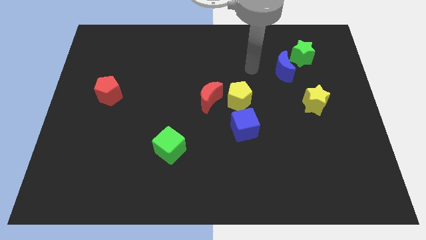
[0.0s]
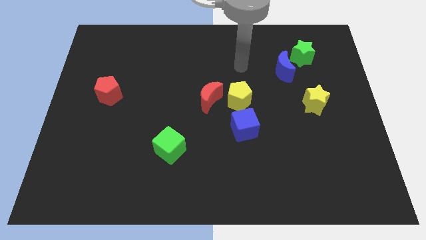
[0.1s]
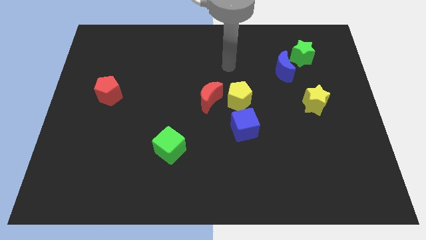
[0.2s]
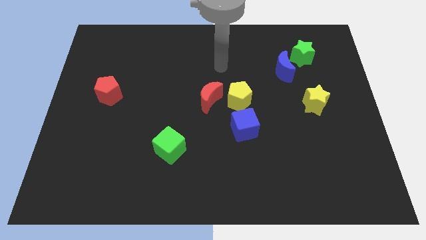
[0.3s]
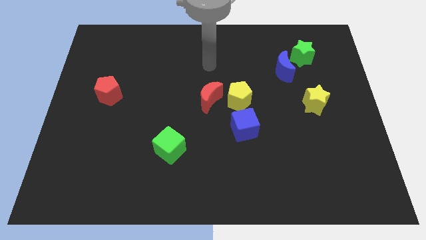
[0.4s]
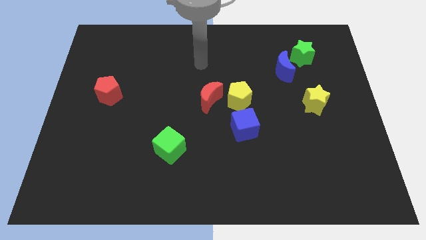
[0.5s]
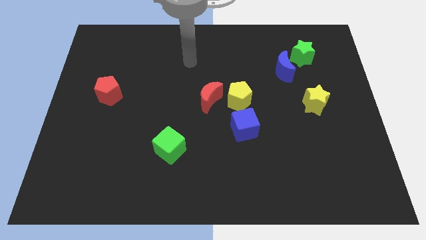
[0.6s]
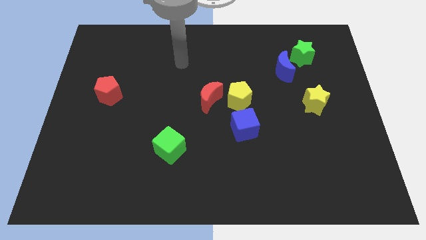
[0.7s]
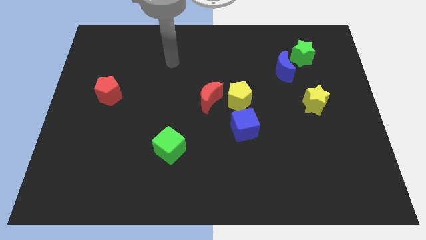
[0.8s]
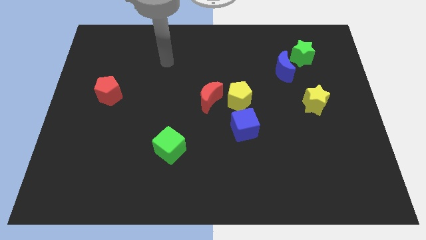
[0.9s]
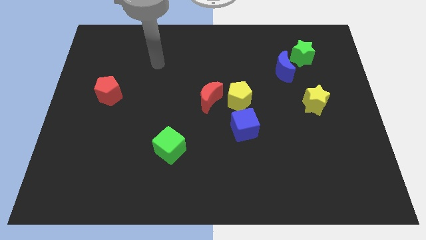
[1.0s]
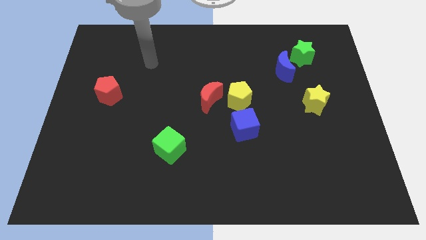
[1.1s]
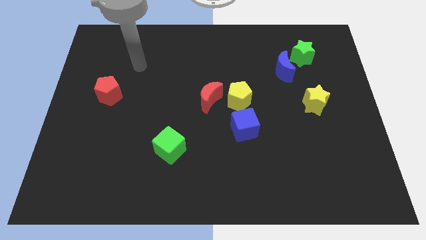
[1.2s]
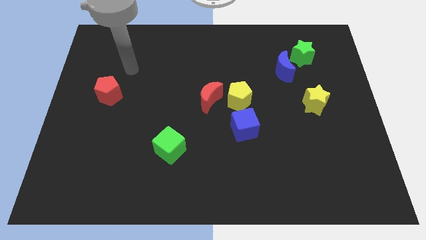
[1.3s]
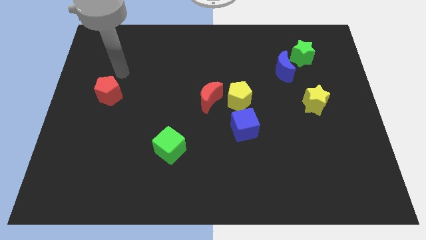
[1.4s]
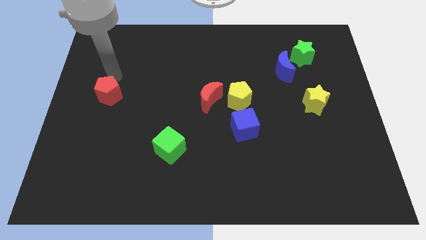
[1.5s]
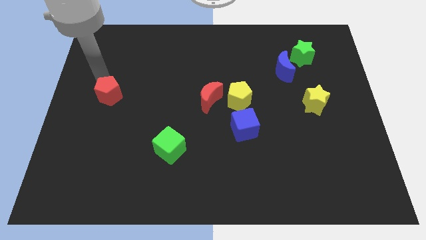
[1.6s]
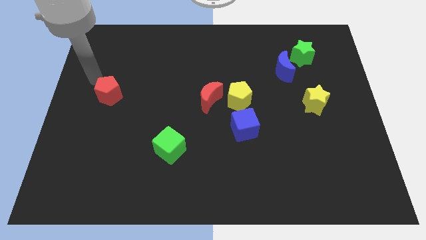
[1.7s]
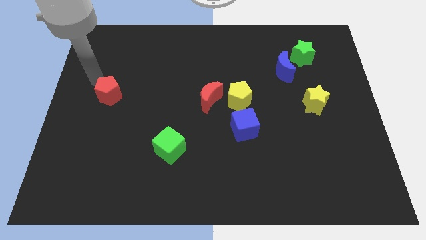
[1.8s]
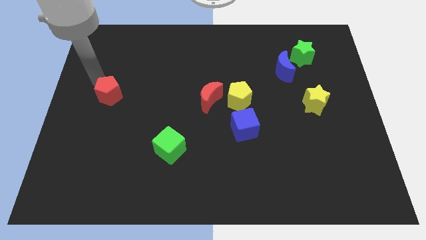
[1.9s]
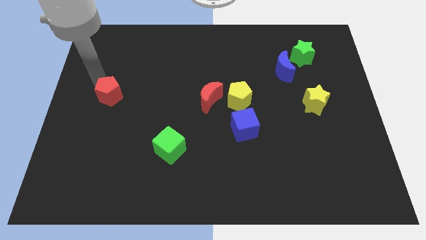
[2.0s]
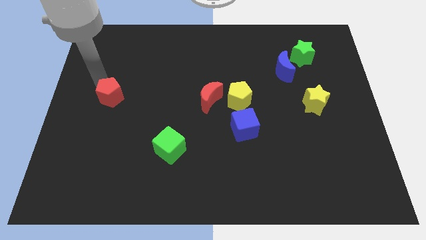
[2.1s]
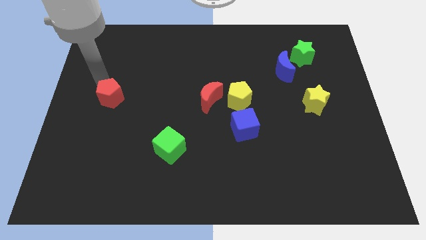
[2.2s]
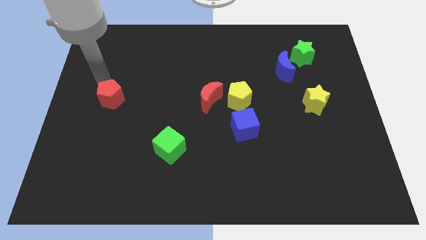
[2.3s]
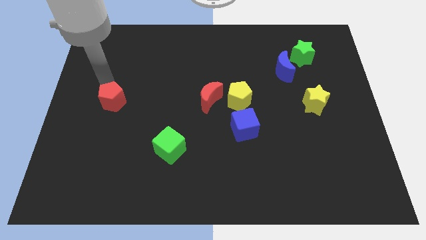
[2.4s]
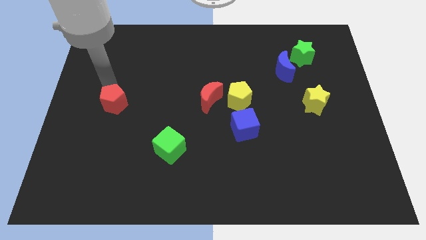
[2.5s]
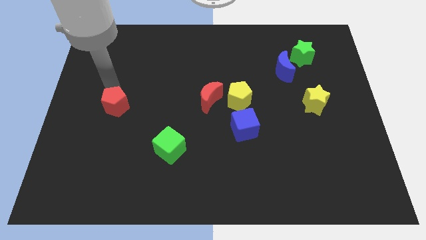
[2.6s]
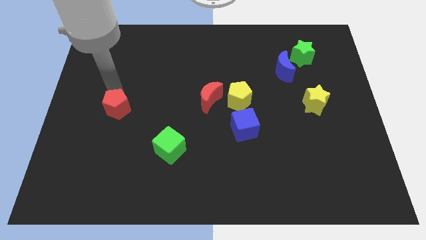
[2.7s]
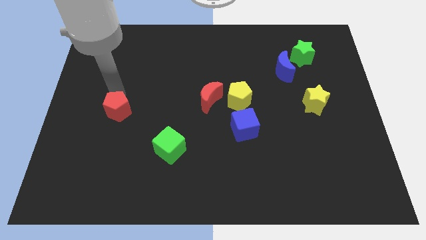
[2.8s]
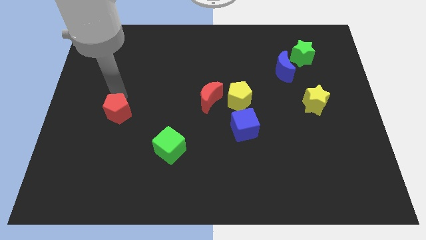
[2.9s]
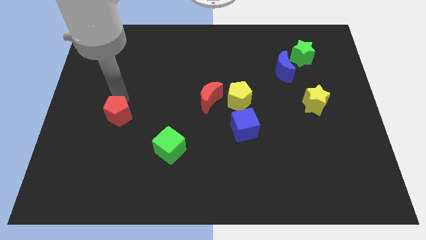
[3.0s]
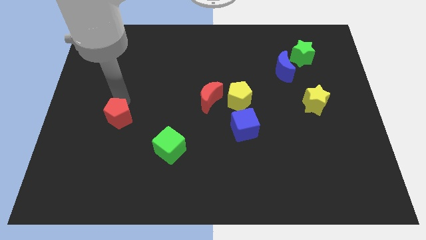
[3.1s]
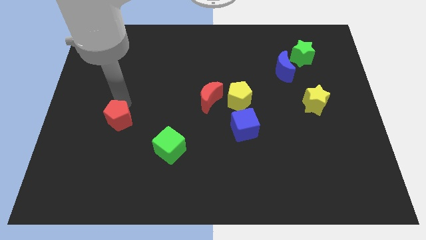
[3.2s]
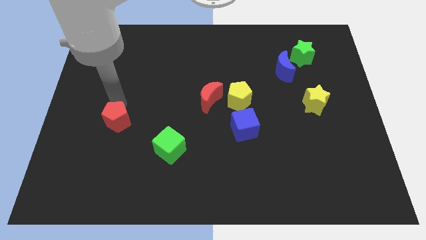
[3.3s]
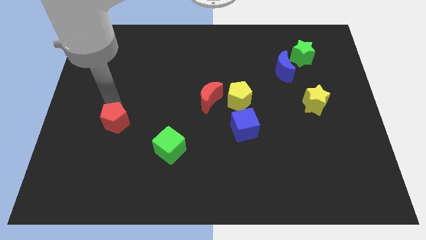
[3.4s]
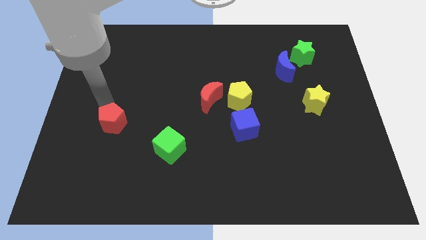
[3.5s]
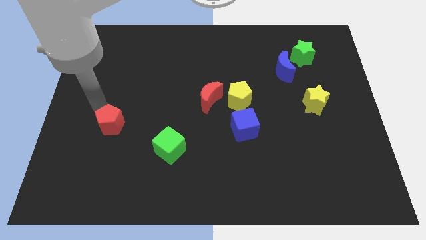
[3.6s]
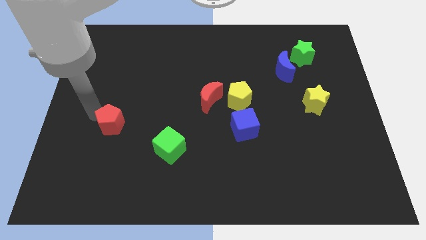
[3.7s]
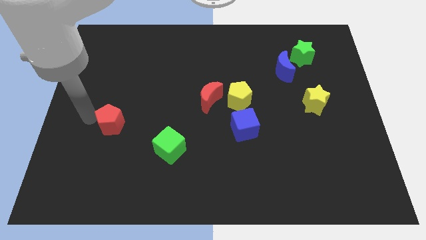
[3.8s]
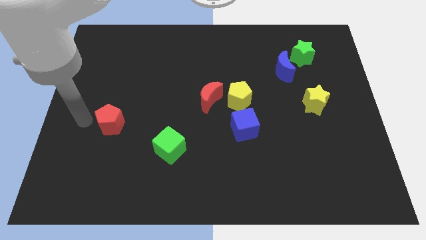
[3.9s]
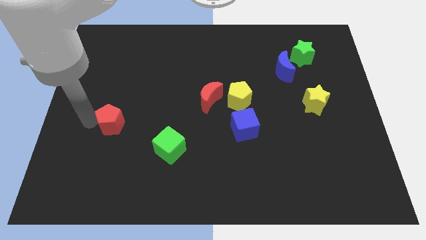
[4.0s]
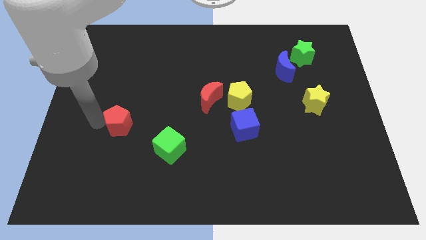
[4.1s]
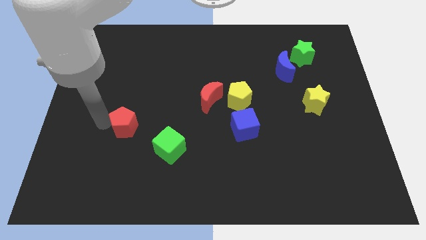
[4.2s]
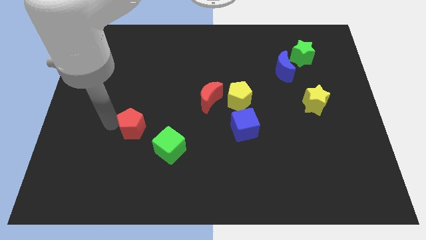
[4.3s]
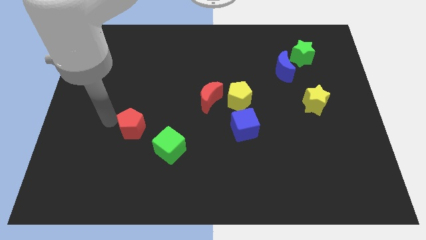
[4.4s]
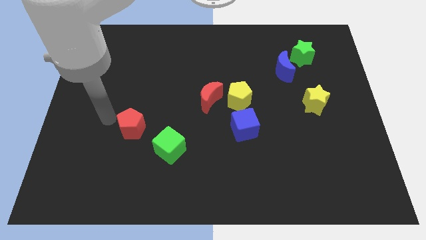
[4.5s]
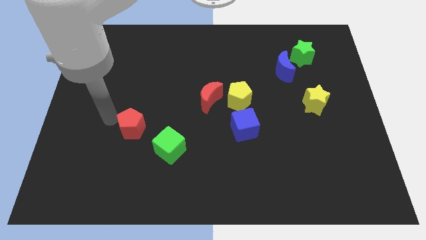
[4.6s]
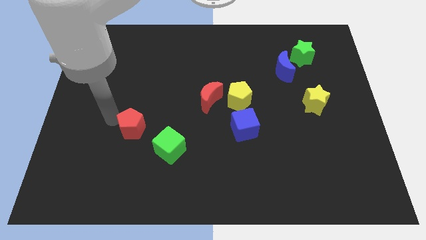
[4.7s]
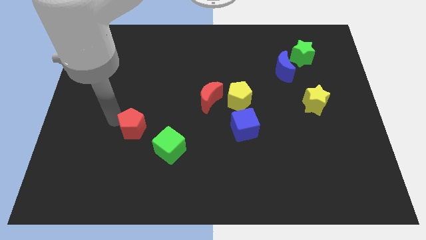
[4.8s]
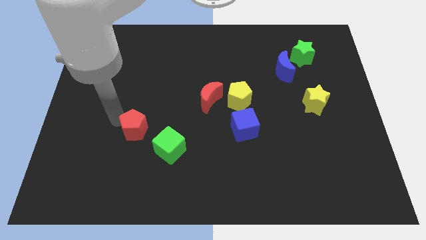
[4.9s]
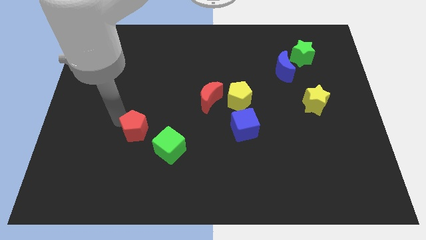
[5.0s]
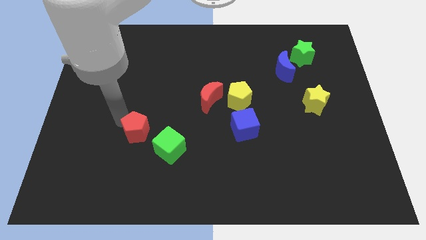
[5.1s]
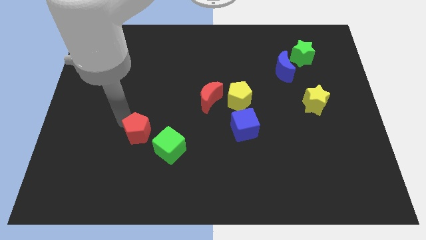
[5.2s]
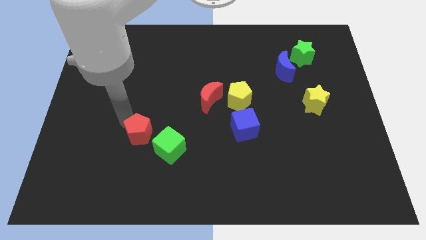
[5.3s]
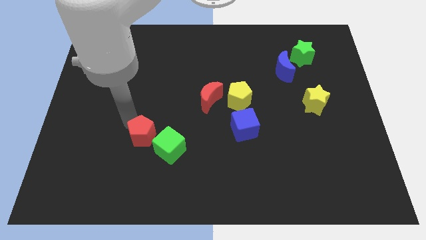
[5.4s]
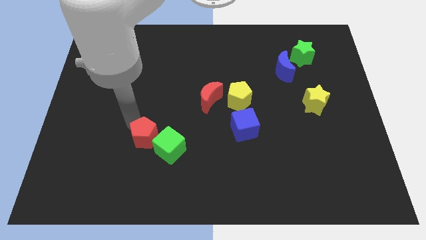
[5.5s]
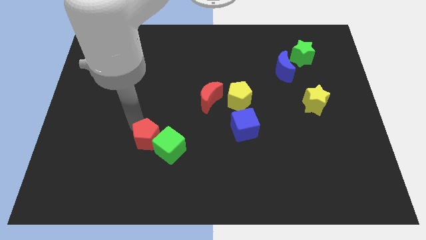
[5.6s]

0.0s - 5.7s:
move the red pentagon close to the green cube

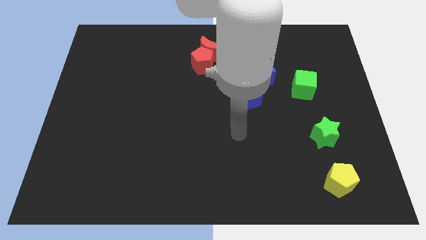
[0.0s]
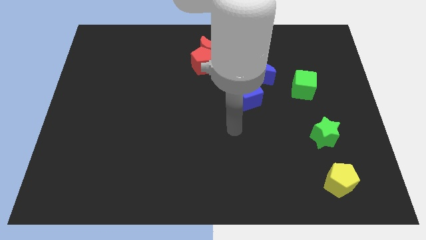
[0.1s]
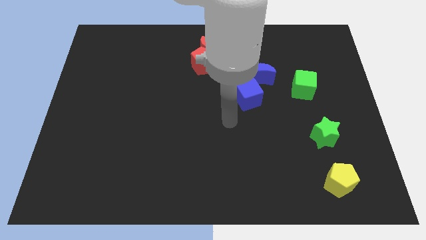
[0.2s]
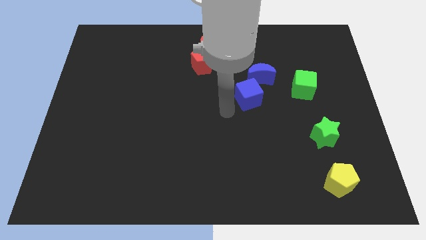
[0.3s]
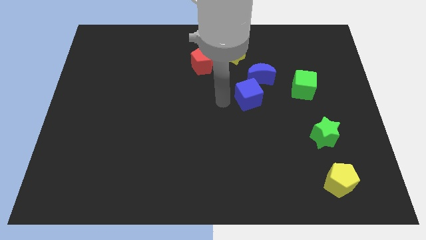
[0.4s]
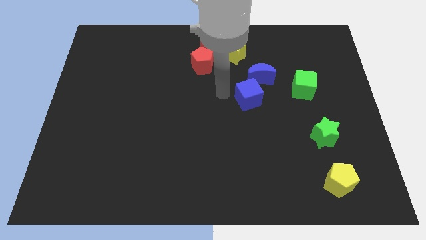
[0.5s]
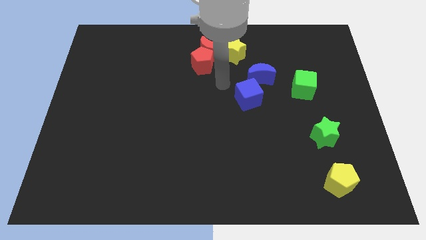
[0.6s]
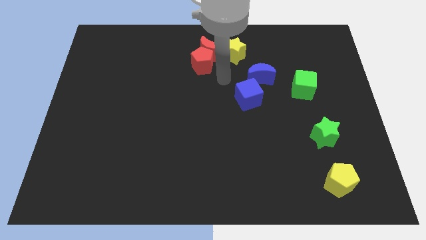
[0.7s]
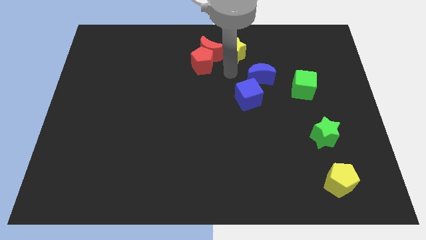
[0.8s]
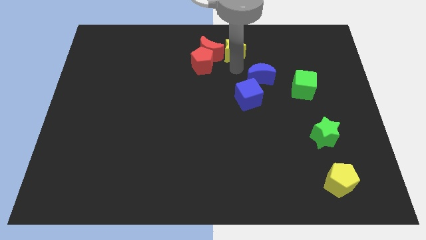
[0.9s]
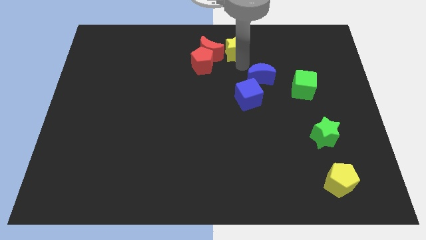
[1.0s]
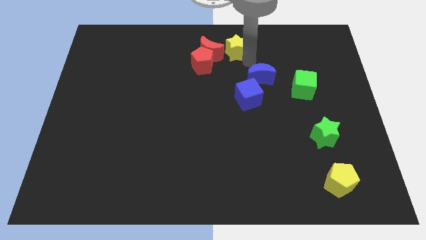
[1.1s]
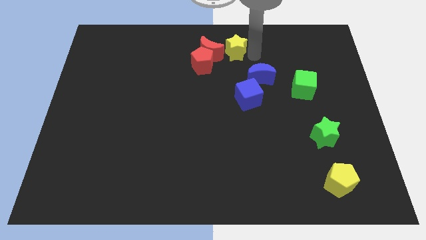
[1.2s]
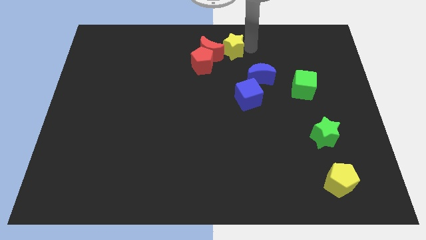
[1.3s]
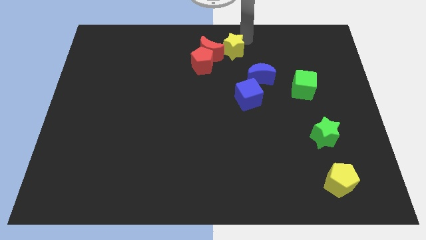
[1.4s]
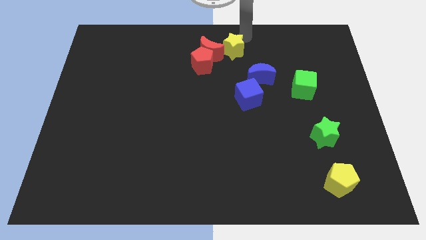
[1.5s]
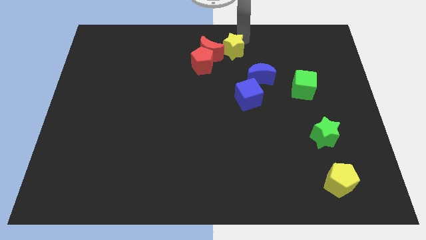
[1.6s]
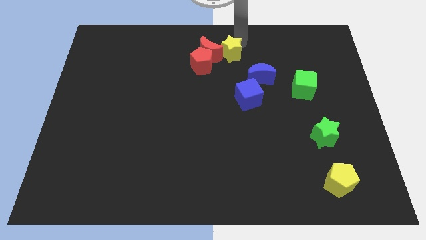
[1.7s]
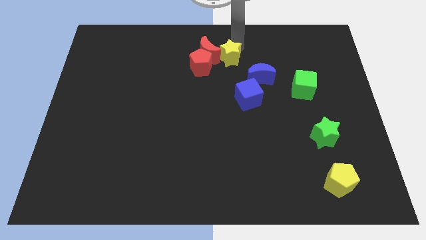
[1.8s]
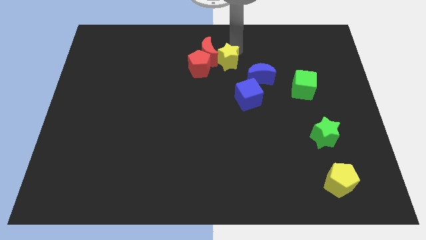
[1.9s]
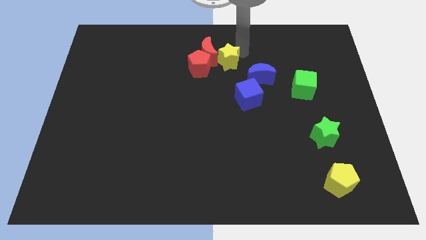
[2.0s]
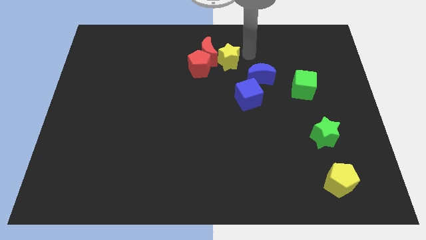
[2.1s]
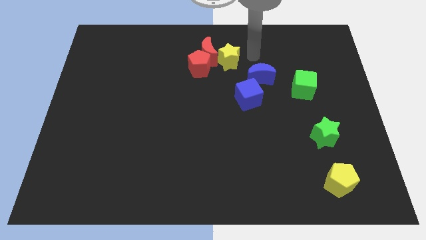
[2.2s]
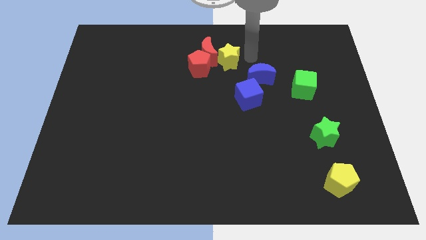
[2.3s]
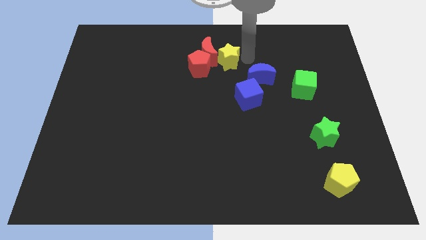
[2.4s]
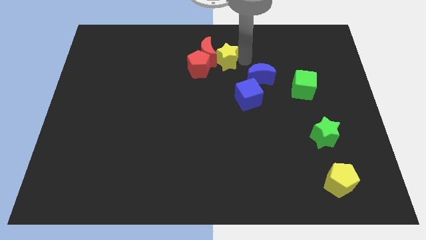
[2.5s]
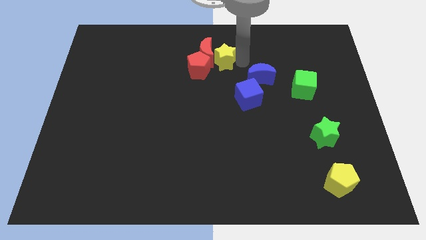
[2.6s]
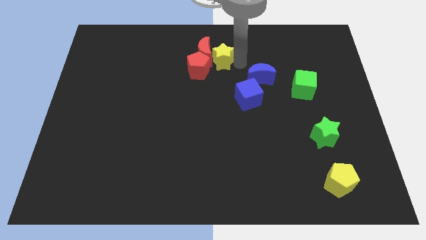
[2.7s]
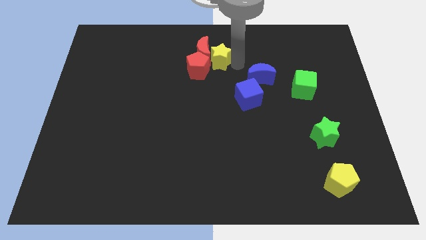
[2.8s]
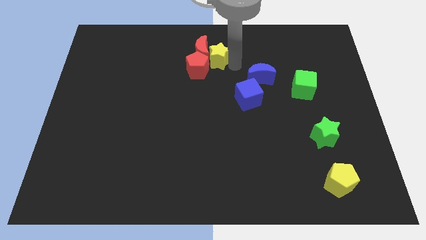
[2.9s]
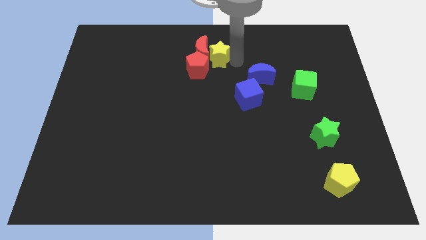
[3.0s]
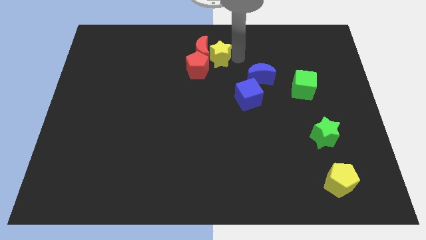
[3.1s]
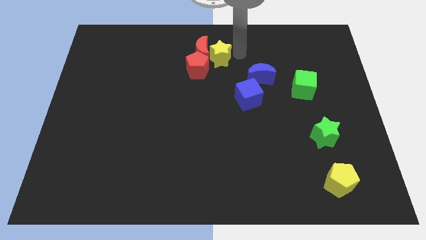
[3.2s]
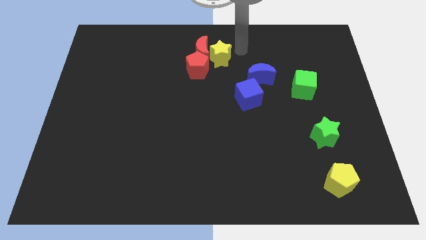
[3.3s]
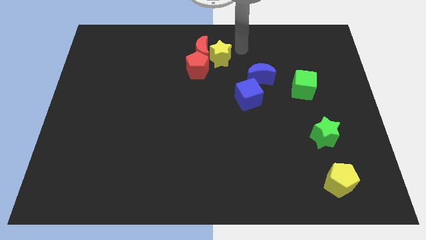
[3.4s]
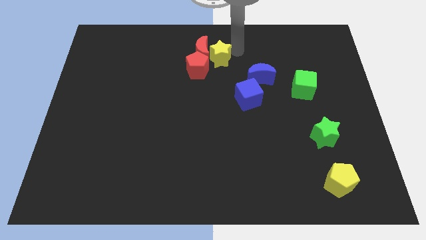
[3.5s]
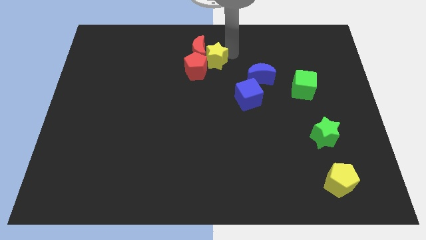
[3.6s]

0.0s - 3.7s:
put the yellow star to the red pentagon
